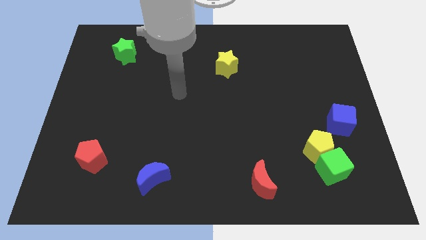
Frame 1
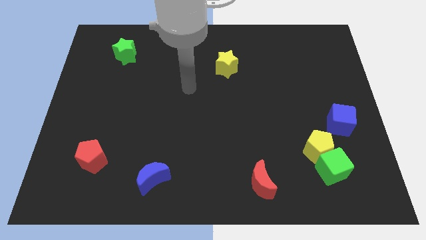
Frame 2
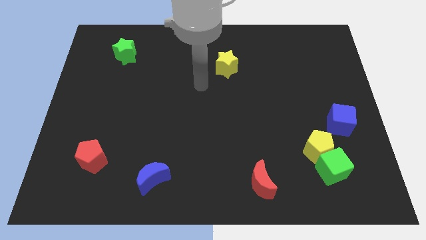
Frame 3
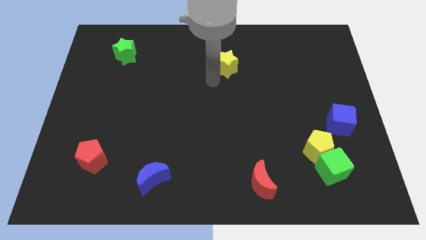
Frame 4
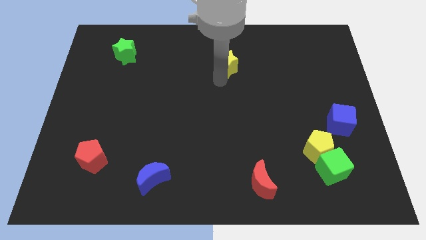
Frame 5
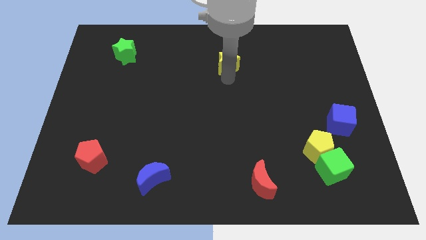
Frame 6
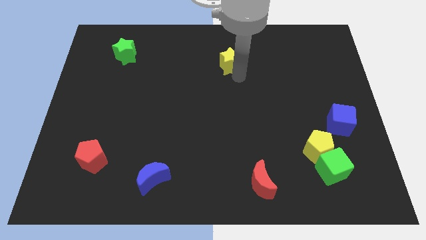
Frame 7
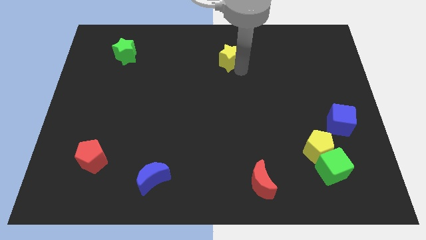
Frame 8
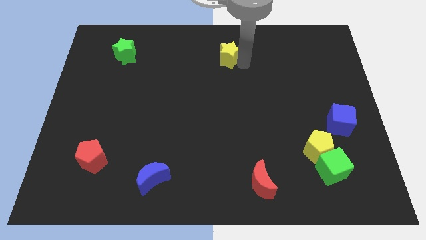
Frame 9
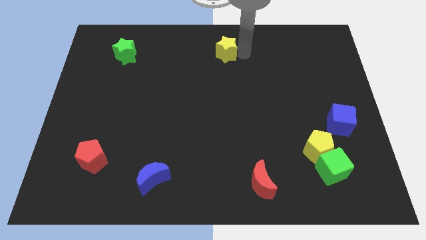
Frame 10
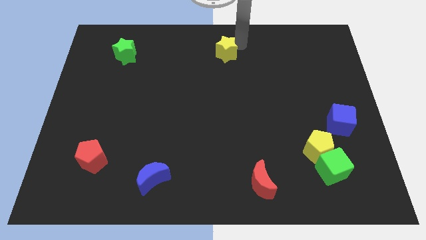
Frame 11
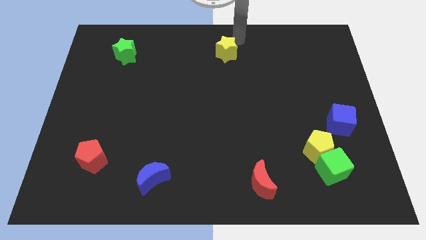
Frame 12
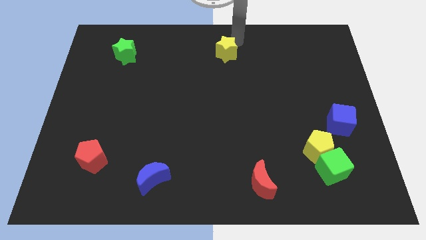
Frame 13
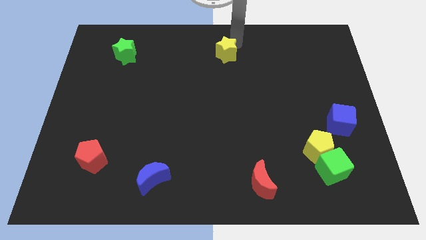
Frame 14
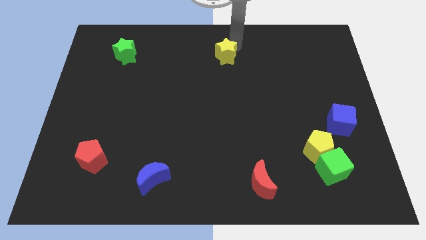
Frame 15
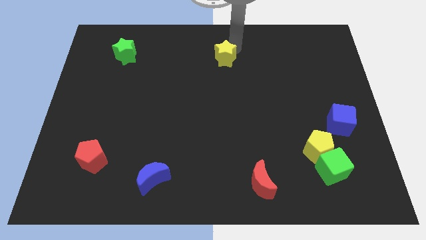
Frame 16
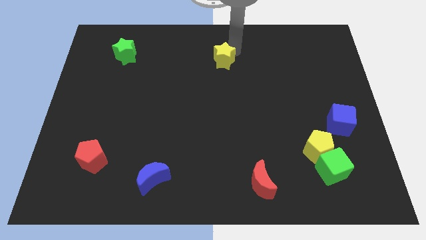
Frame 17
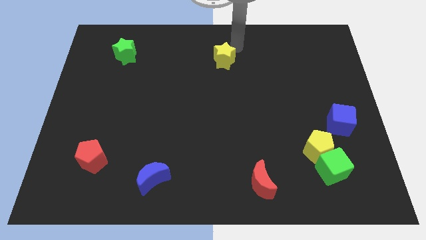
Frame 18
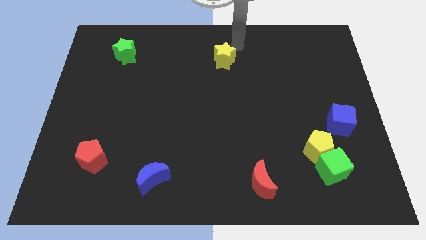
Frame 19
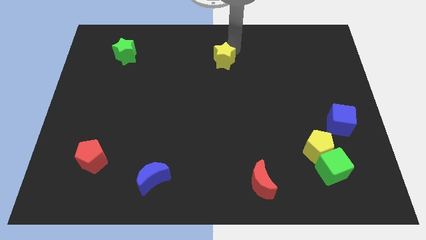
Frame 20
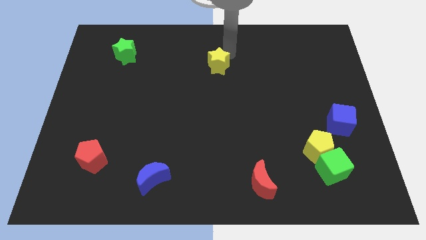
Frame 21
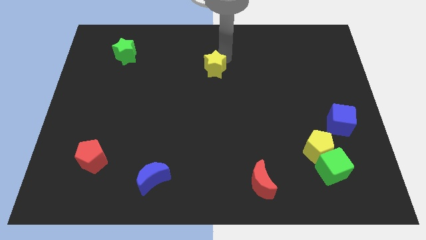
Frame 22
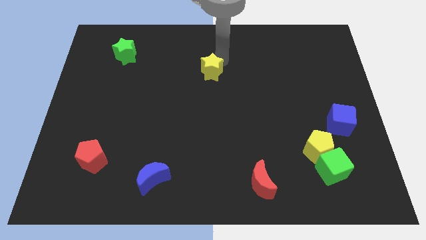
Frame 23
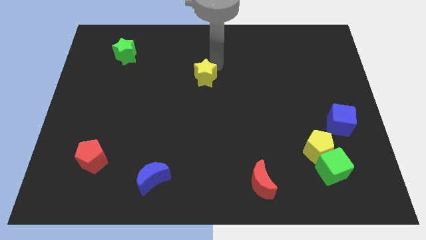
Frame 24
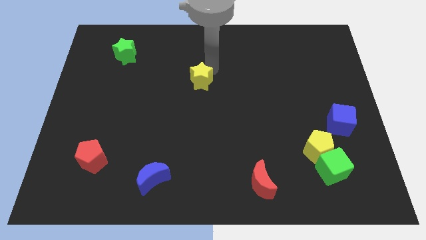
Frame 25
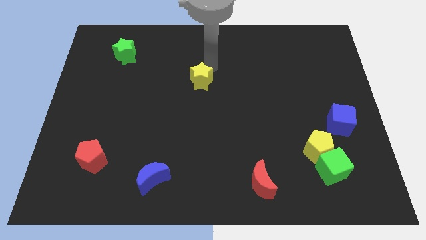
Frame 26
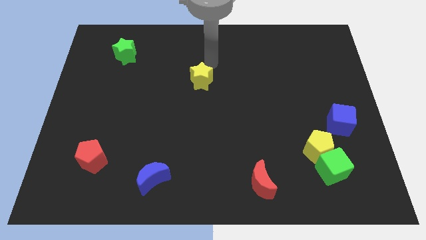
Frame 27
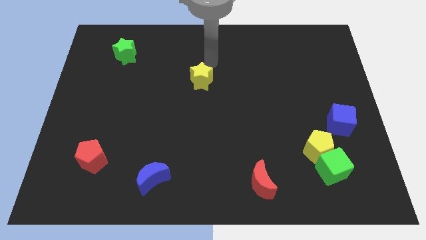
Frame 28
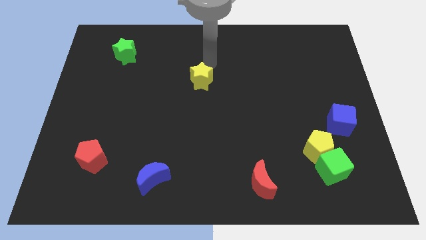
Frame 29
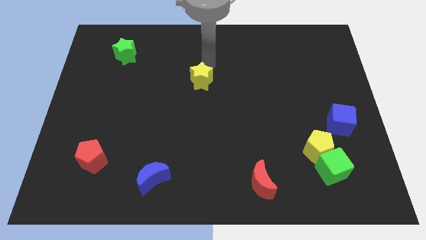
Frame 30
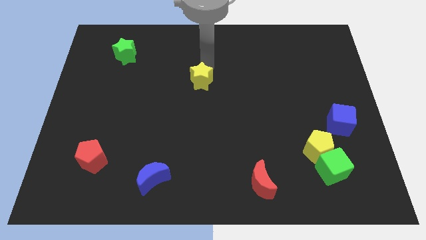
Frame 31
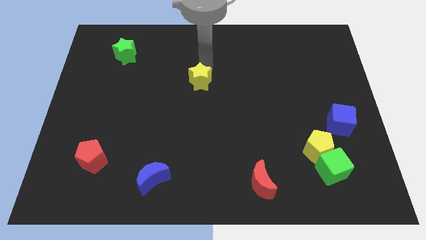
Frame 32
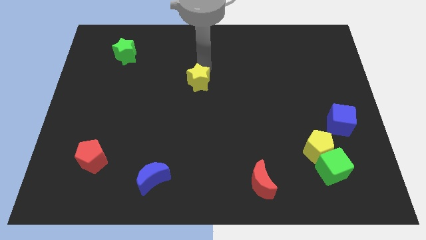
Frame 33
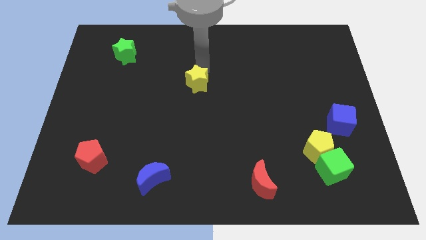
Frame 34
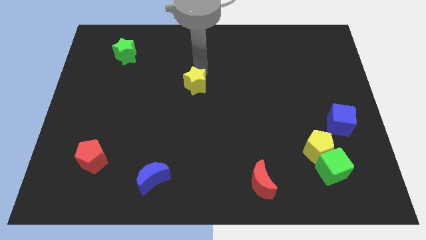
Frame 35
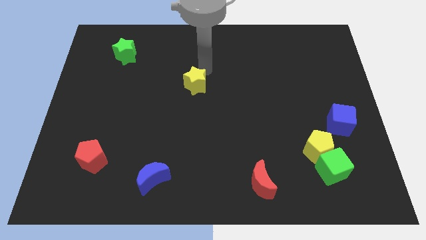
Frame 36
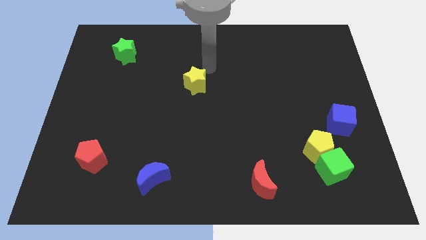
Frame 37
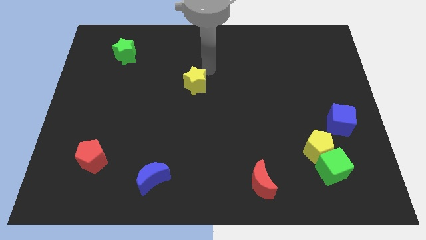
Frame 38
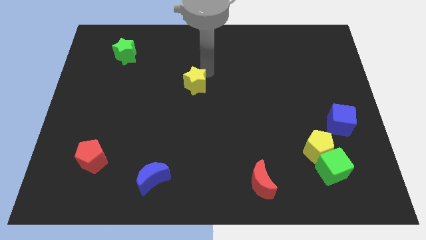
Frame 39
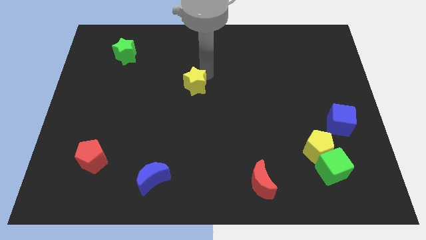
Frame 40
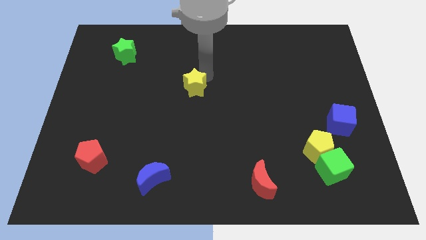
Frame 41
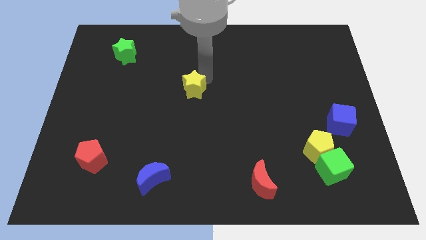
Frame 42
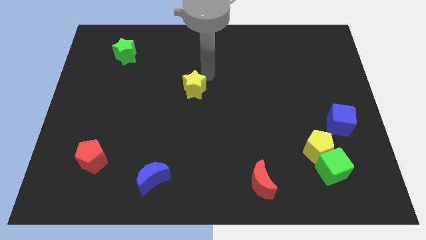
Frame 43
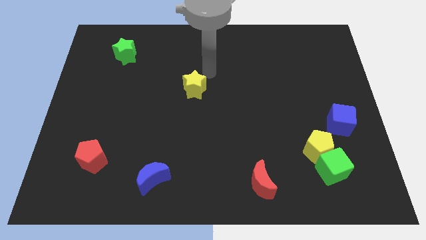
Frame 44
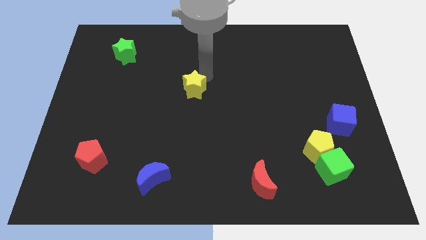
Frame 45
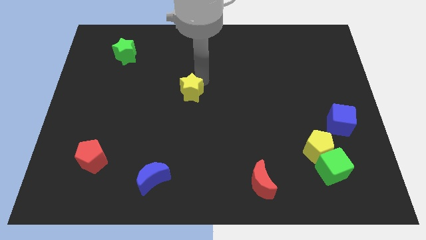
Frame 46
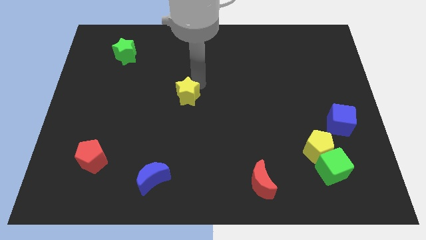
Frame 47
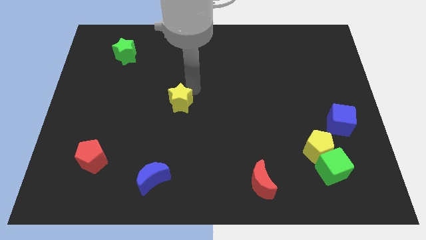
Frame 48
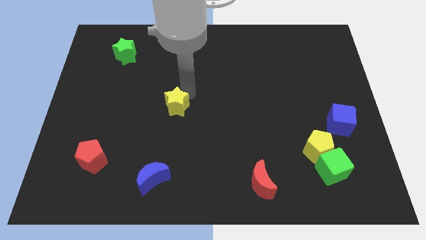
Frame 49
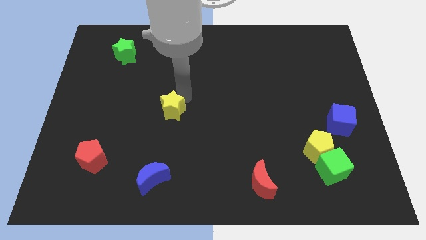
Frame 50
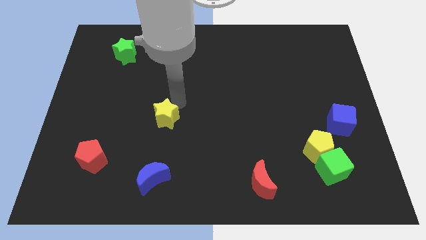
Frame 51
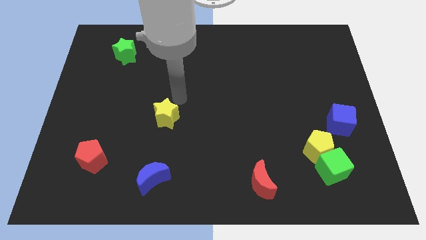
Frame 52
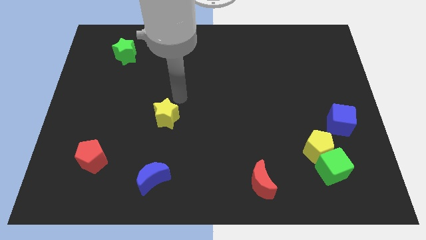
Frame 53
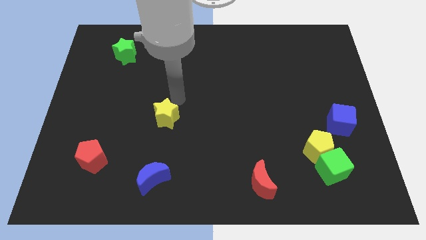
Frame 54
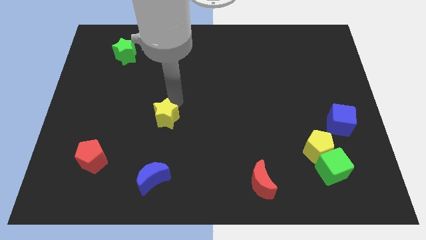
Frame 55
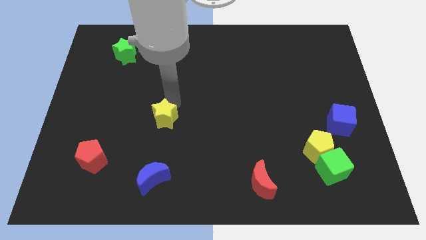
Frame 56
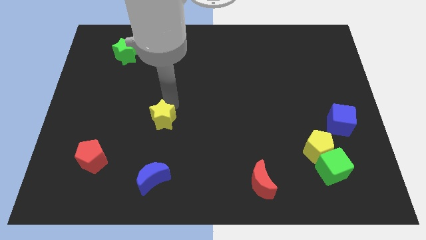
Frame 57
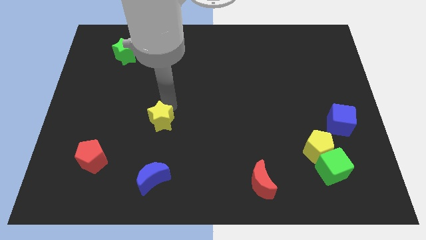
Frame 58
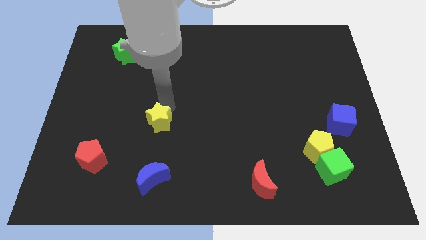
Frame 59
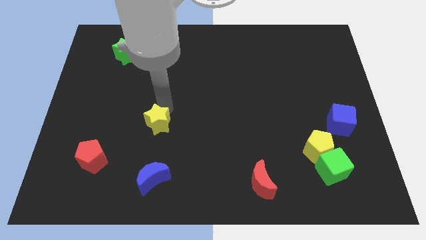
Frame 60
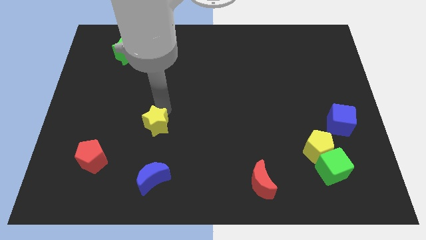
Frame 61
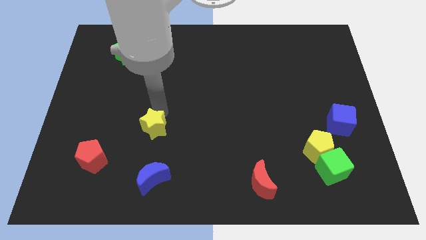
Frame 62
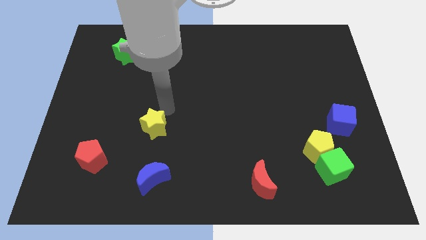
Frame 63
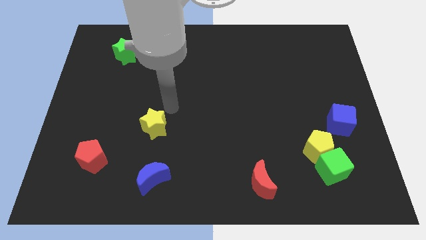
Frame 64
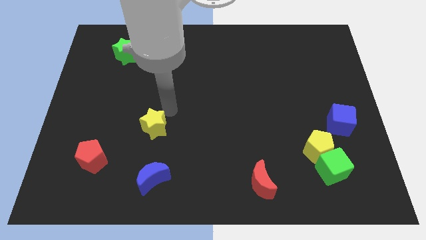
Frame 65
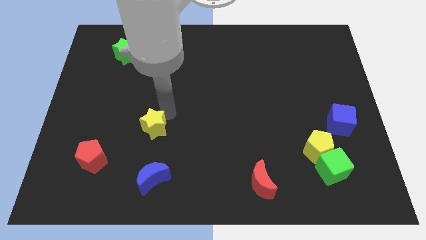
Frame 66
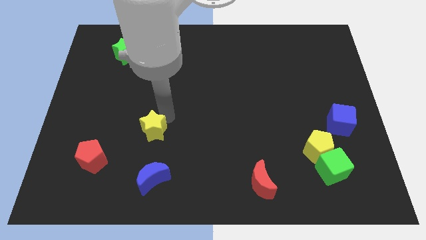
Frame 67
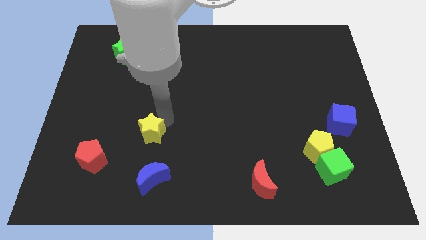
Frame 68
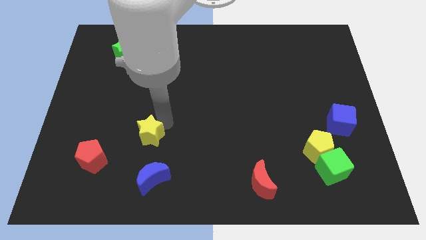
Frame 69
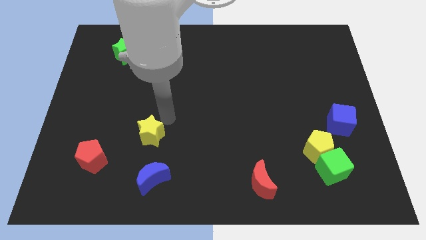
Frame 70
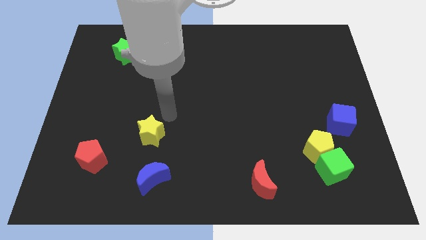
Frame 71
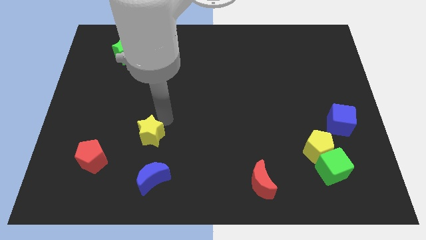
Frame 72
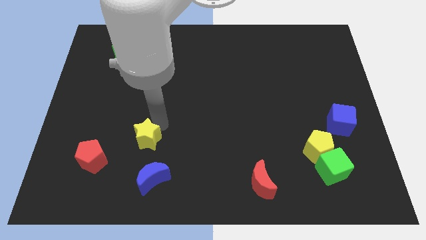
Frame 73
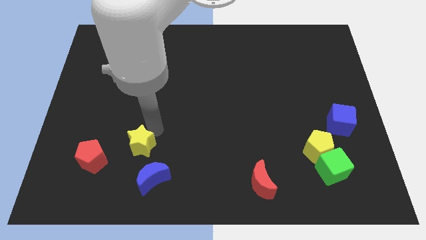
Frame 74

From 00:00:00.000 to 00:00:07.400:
push the yellow star to the top left of the blue moon

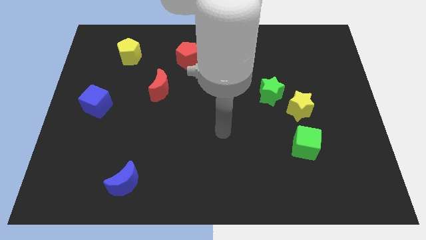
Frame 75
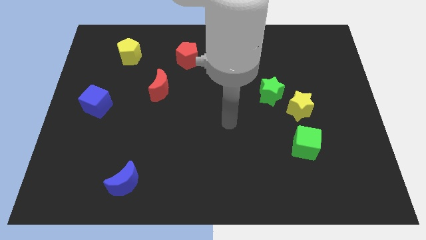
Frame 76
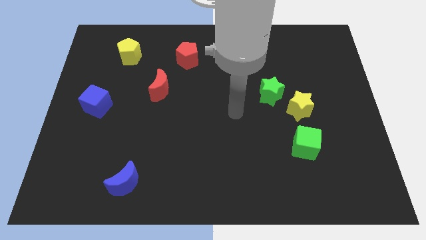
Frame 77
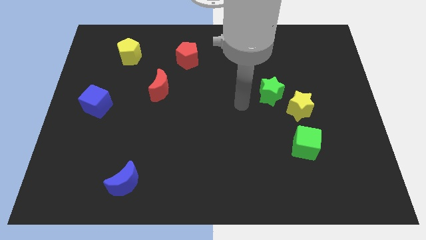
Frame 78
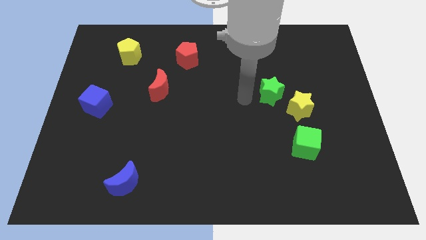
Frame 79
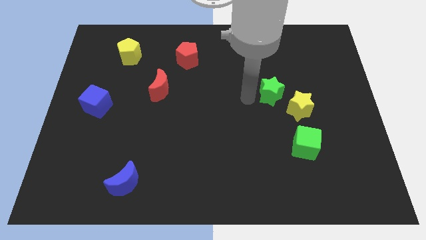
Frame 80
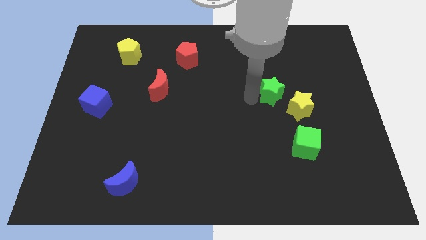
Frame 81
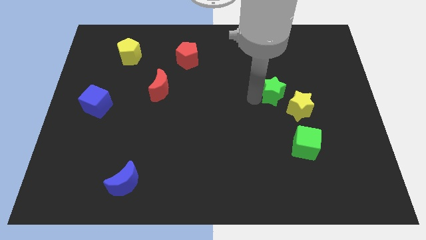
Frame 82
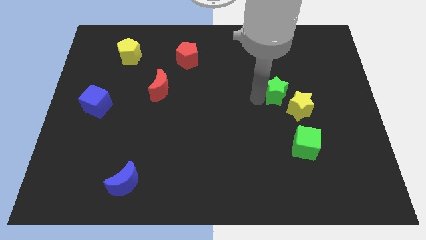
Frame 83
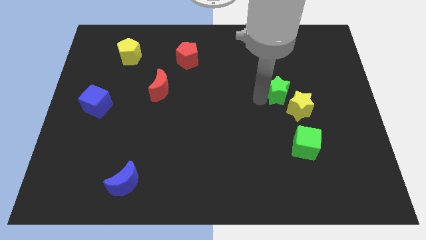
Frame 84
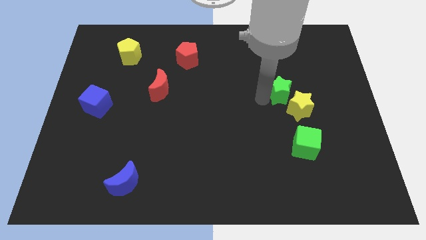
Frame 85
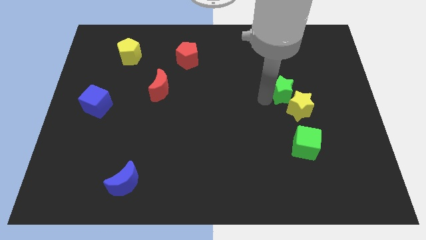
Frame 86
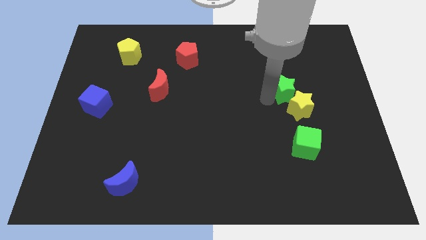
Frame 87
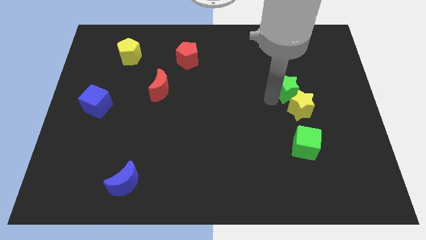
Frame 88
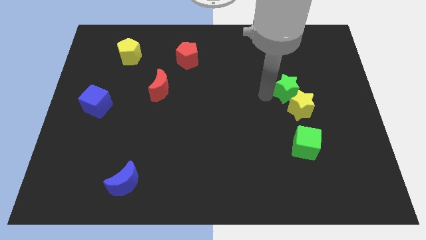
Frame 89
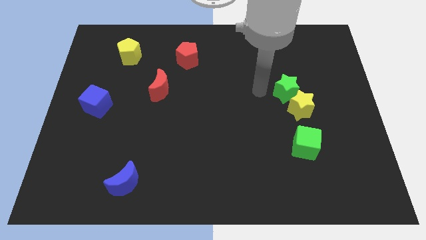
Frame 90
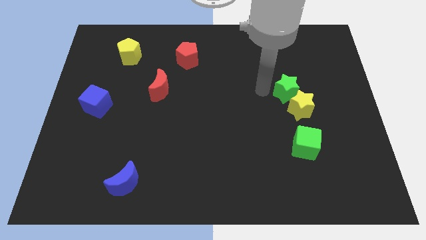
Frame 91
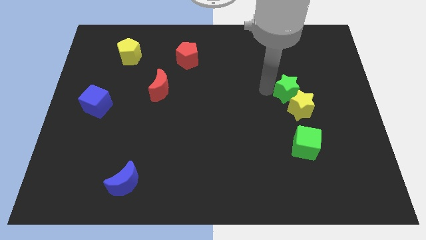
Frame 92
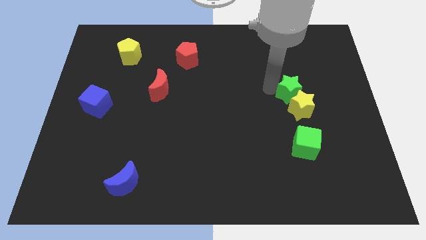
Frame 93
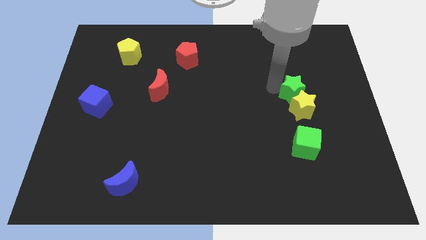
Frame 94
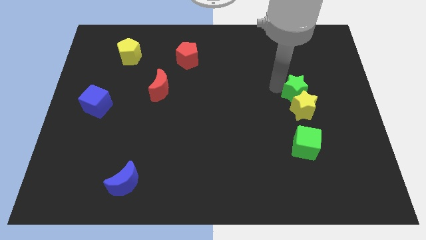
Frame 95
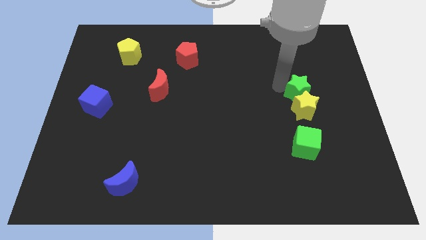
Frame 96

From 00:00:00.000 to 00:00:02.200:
push the green star diagonally up and to the right of the yellow star
